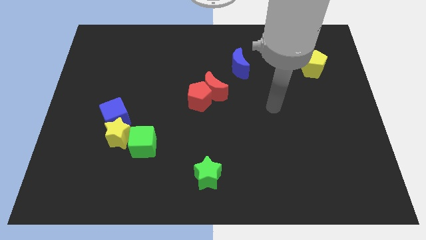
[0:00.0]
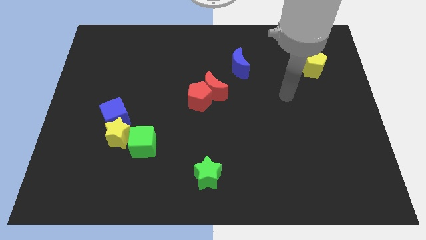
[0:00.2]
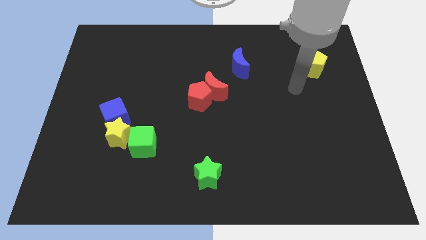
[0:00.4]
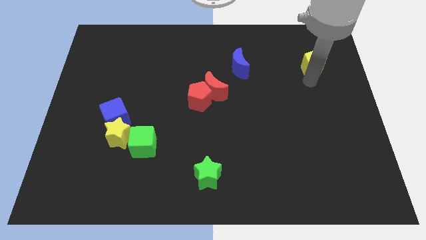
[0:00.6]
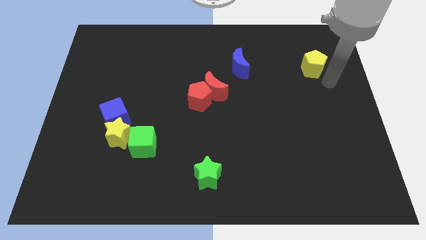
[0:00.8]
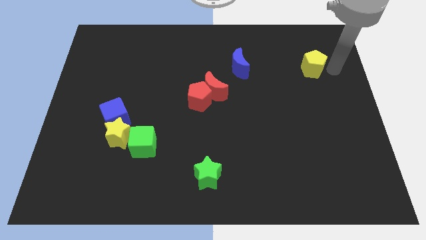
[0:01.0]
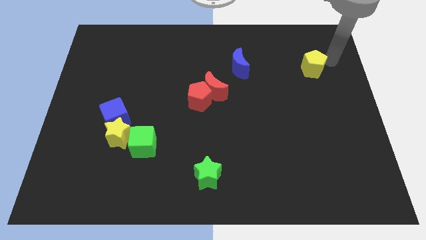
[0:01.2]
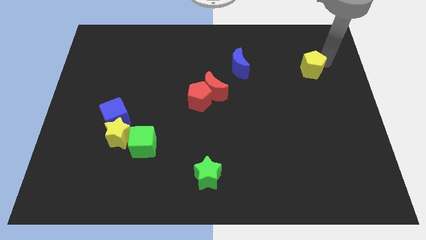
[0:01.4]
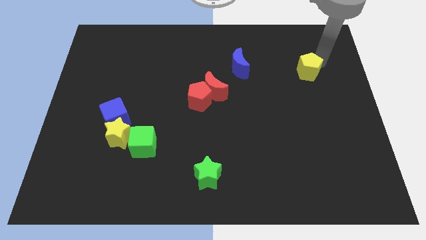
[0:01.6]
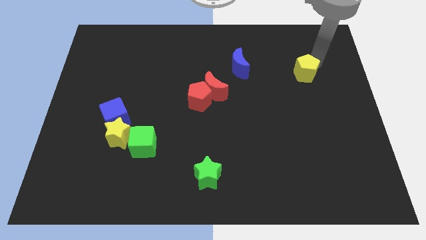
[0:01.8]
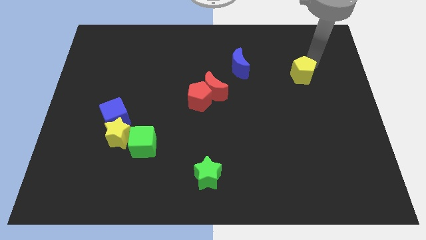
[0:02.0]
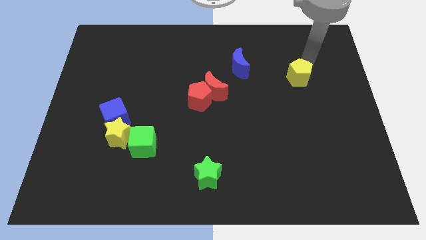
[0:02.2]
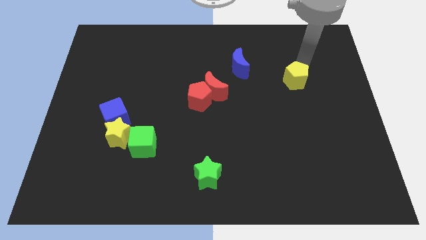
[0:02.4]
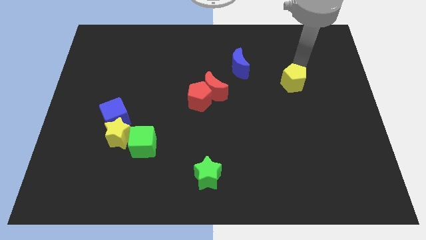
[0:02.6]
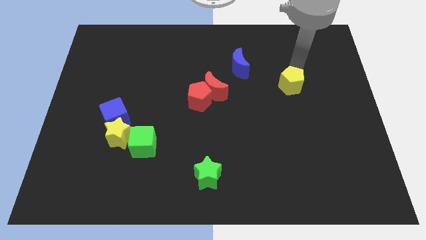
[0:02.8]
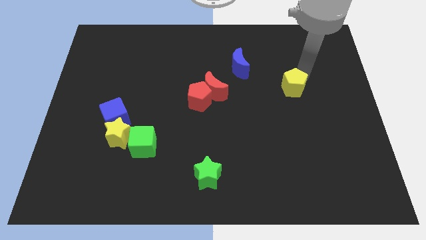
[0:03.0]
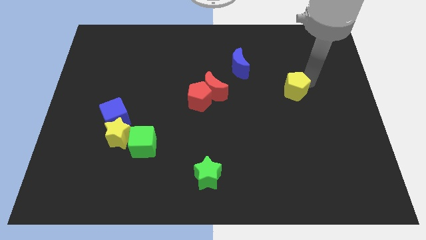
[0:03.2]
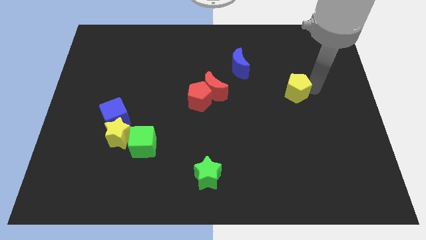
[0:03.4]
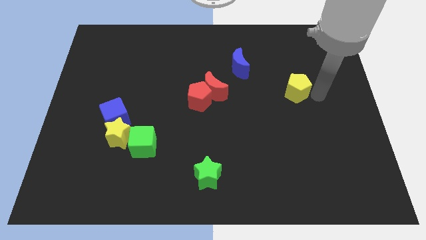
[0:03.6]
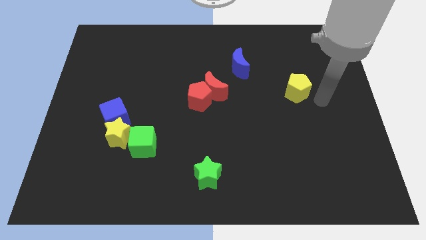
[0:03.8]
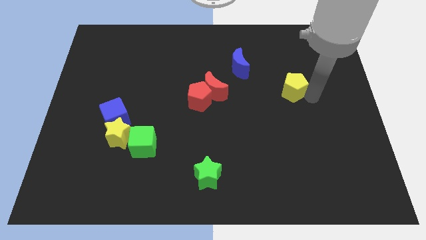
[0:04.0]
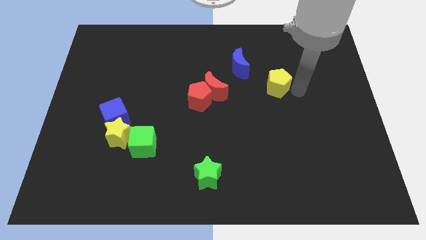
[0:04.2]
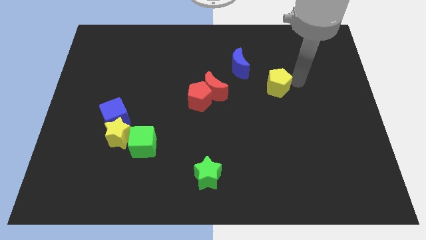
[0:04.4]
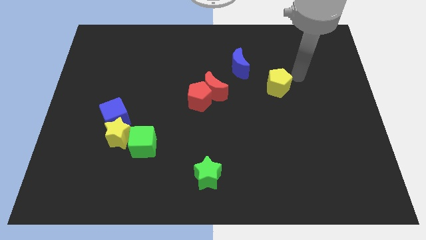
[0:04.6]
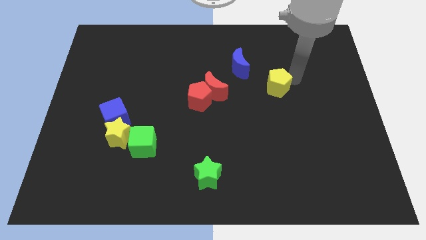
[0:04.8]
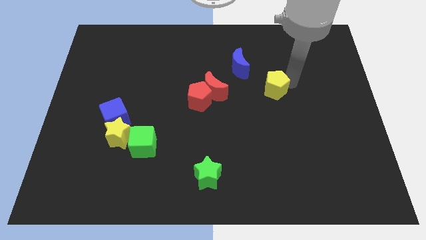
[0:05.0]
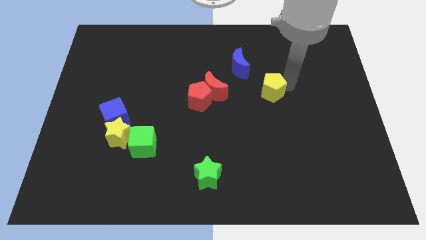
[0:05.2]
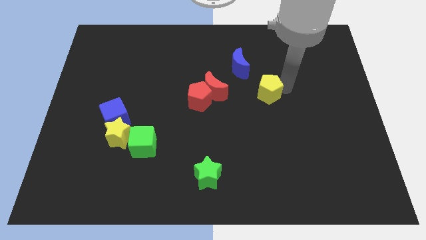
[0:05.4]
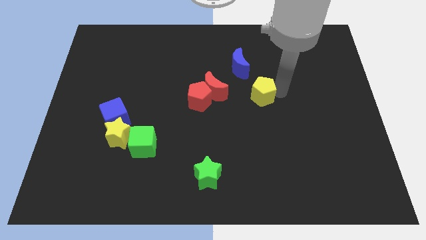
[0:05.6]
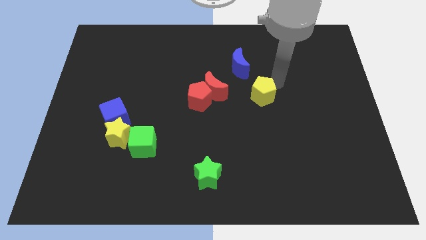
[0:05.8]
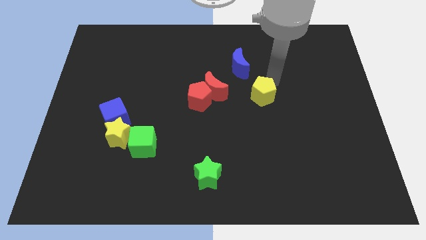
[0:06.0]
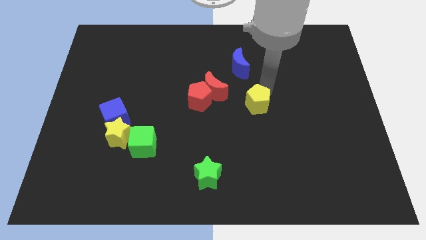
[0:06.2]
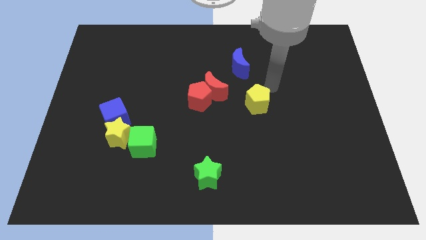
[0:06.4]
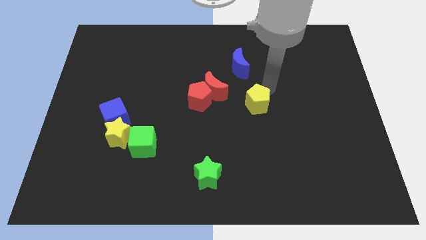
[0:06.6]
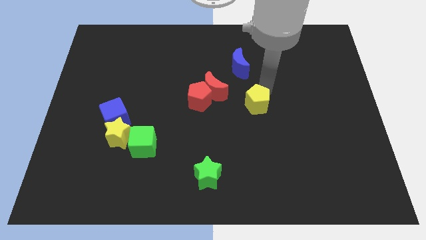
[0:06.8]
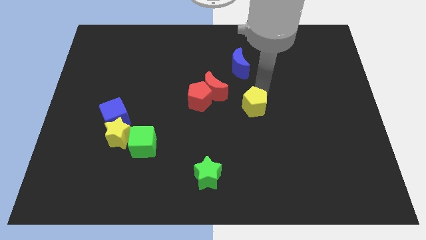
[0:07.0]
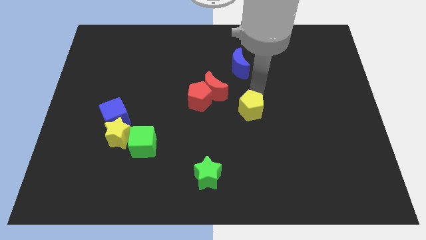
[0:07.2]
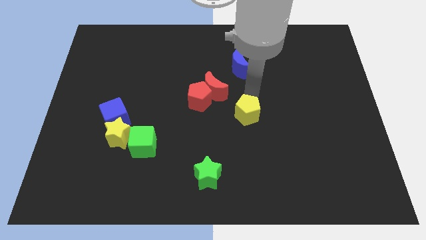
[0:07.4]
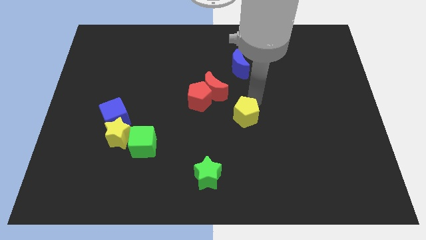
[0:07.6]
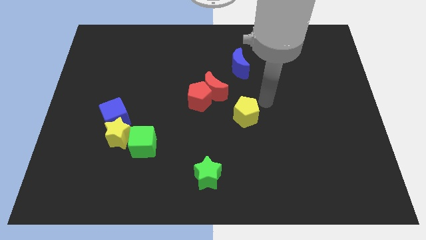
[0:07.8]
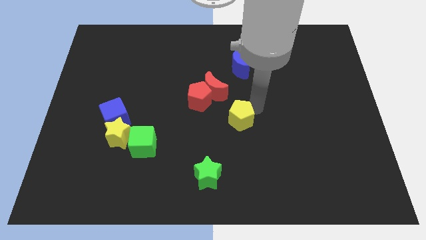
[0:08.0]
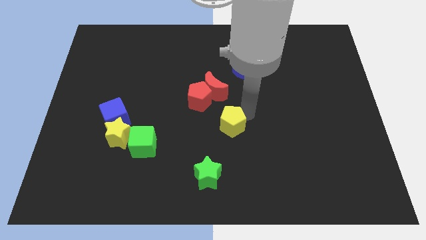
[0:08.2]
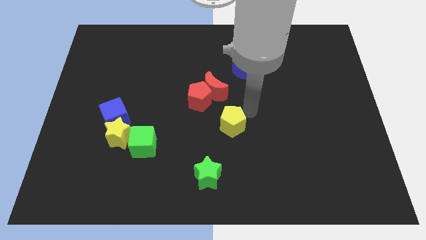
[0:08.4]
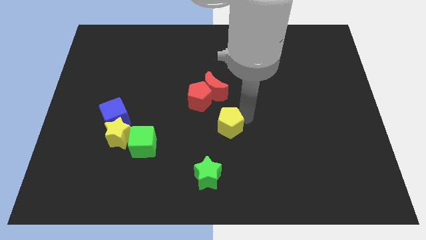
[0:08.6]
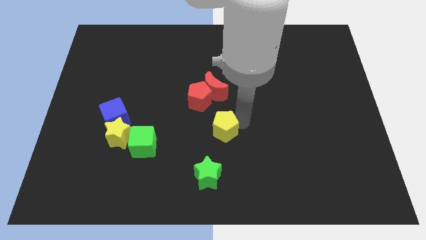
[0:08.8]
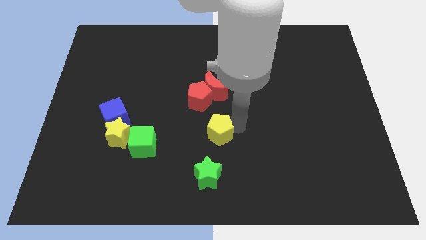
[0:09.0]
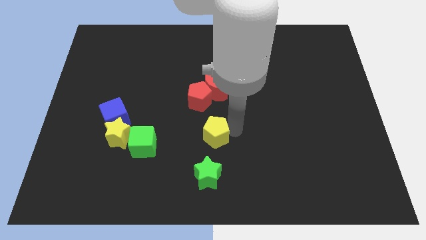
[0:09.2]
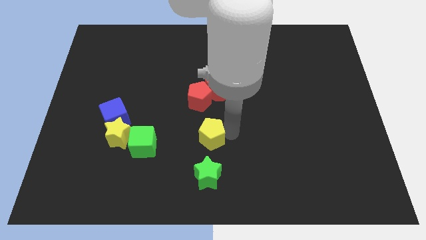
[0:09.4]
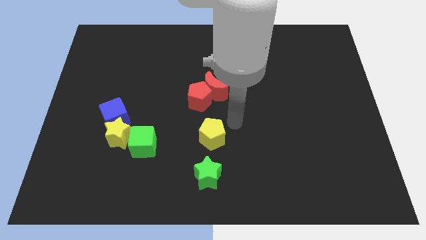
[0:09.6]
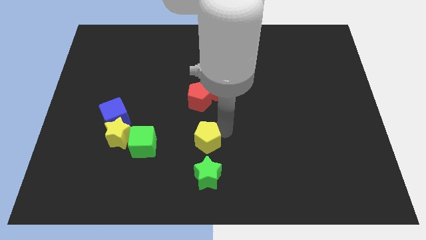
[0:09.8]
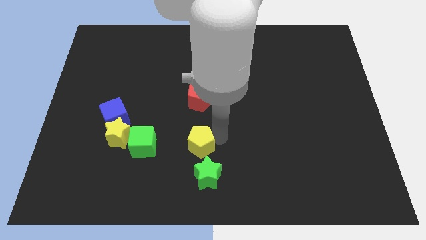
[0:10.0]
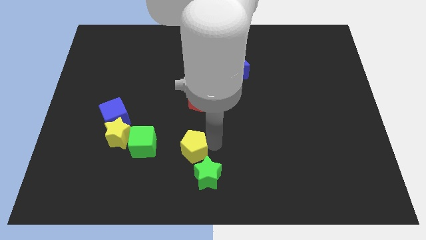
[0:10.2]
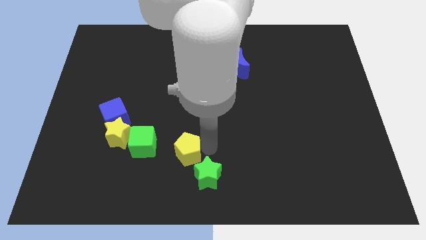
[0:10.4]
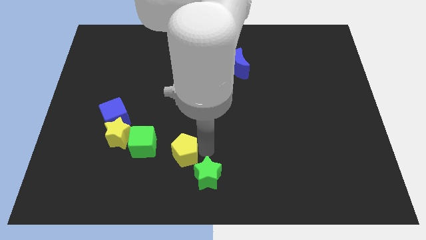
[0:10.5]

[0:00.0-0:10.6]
put the yellow pentagon to the bottom right side of the green cube

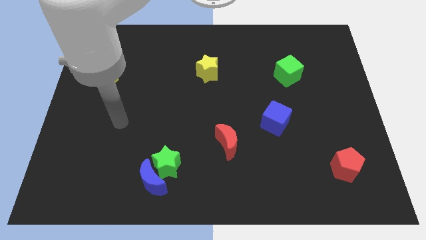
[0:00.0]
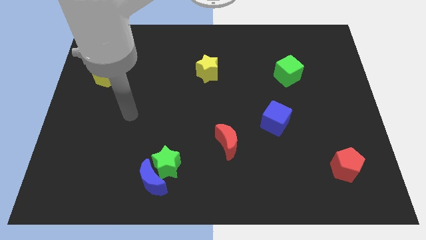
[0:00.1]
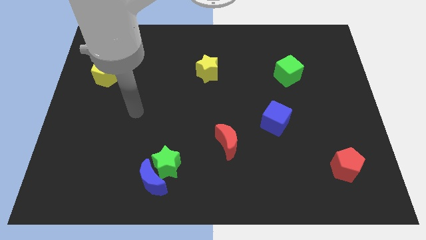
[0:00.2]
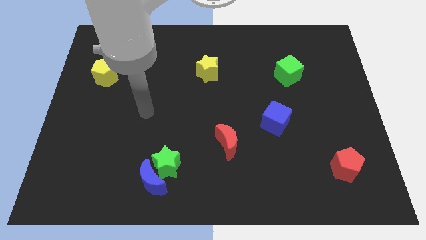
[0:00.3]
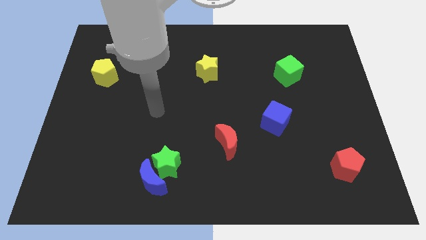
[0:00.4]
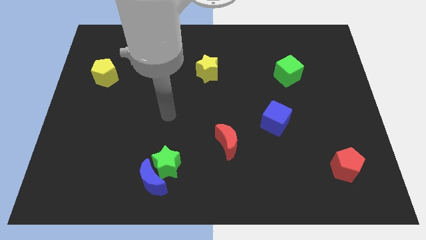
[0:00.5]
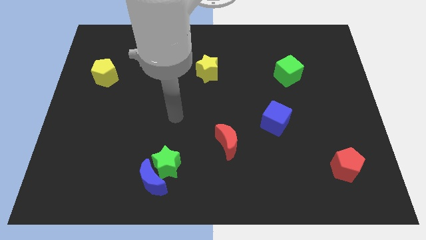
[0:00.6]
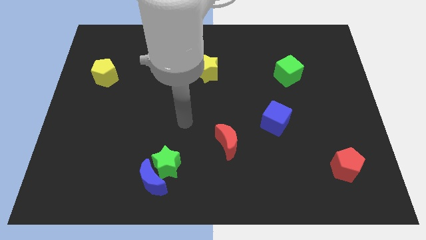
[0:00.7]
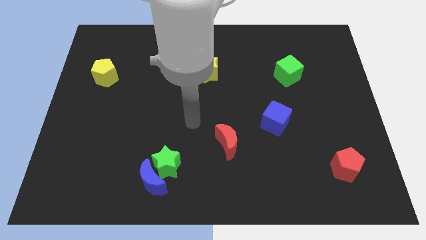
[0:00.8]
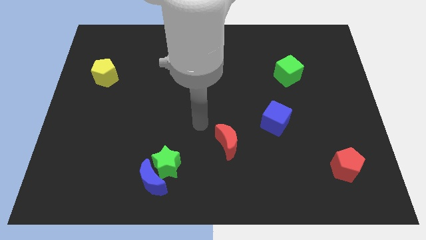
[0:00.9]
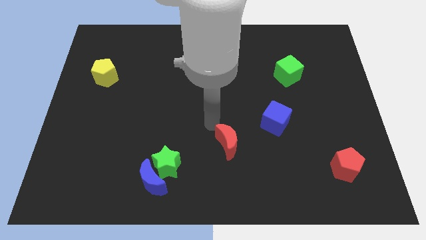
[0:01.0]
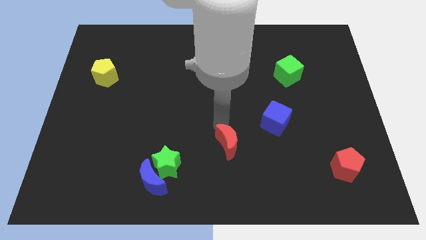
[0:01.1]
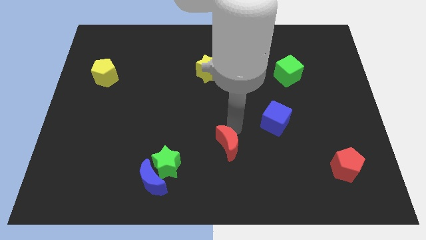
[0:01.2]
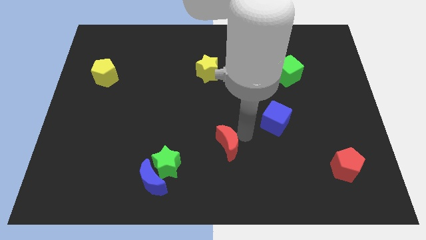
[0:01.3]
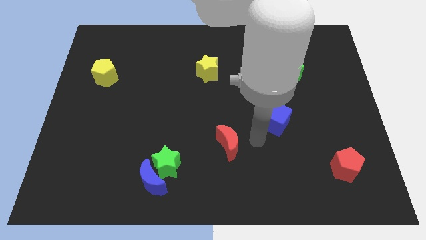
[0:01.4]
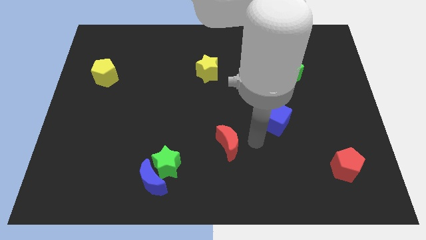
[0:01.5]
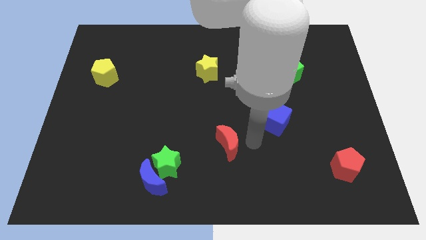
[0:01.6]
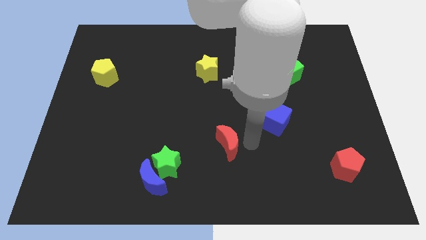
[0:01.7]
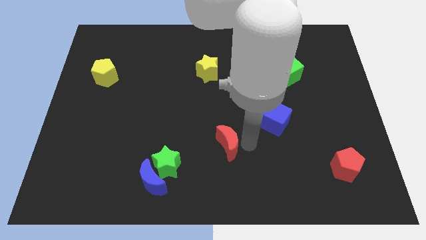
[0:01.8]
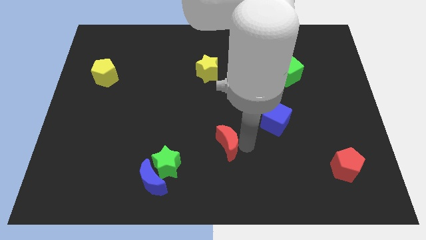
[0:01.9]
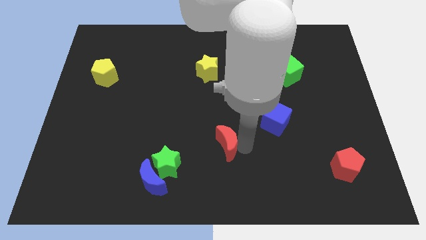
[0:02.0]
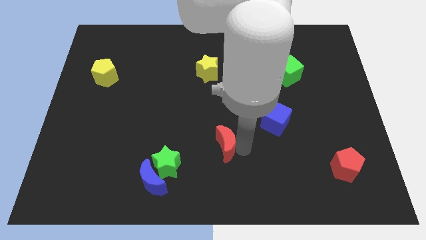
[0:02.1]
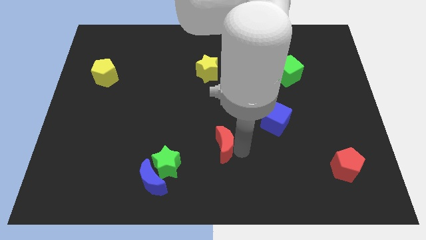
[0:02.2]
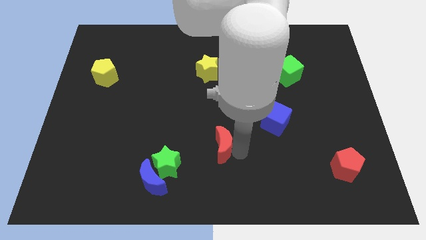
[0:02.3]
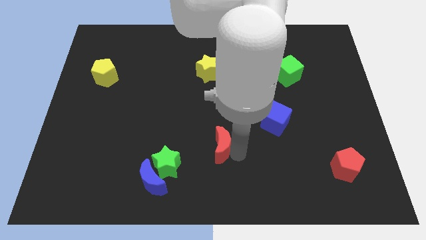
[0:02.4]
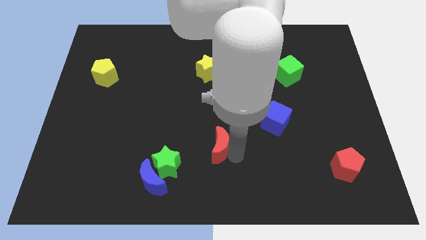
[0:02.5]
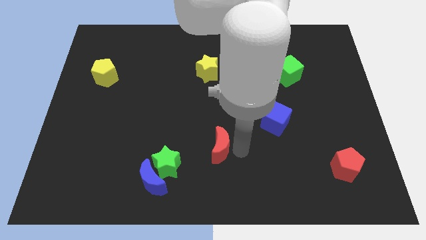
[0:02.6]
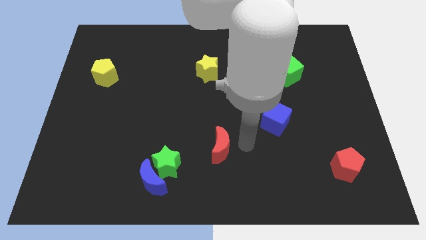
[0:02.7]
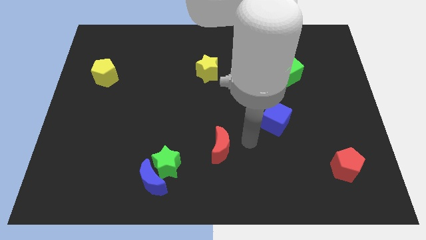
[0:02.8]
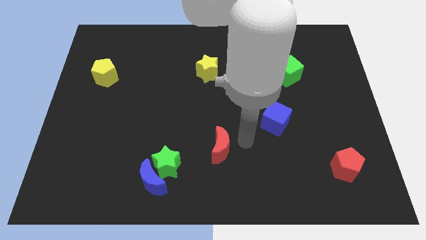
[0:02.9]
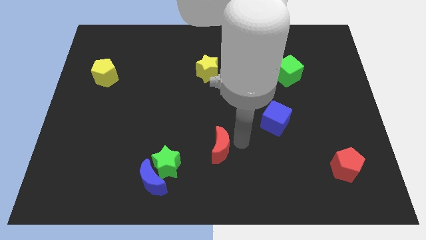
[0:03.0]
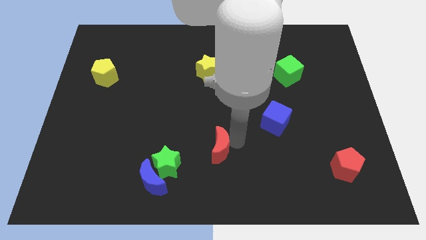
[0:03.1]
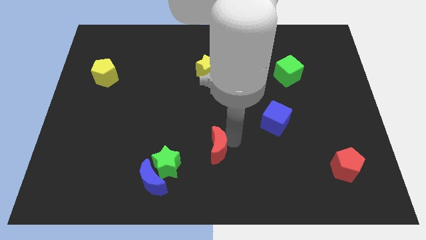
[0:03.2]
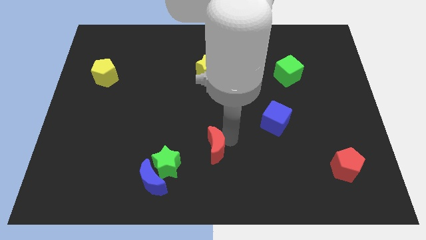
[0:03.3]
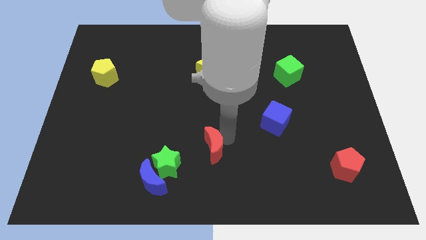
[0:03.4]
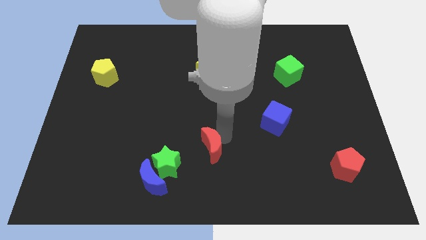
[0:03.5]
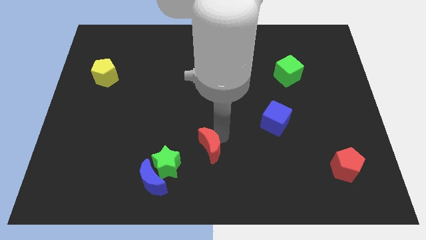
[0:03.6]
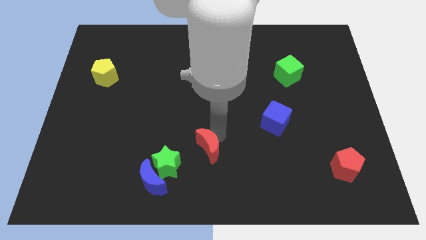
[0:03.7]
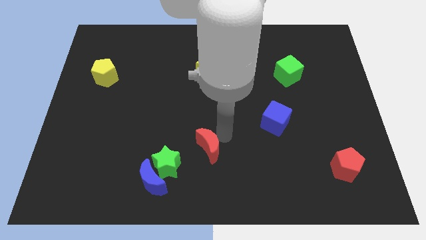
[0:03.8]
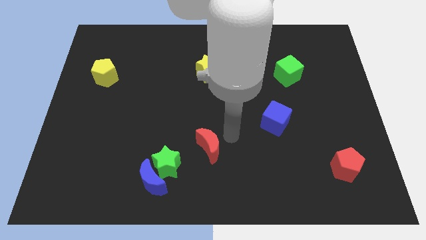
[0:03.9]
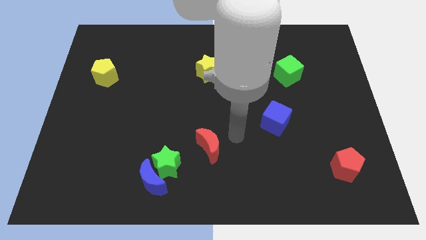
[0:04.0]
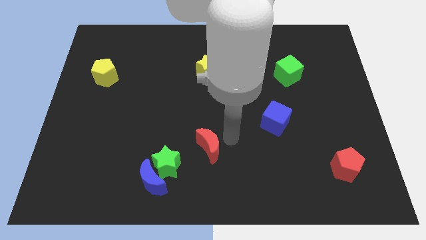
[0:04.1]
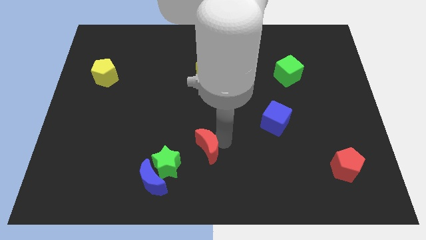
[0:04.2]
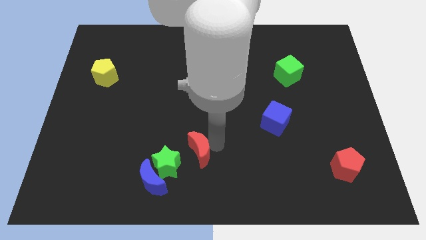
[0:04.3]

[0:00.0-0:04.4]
put the red moon diagonally up and to the right of the blue moon
